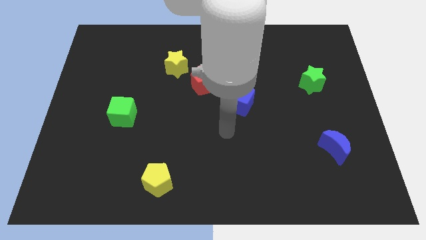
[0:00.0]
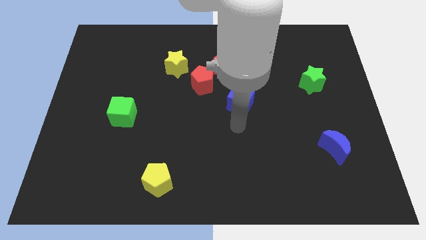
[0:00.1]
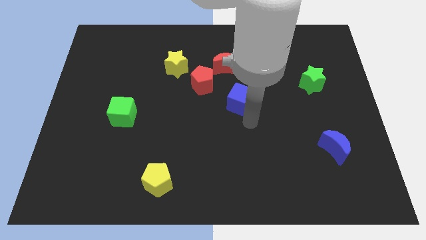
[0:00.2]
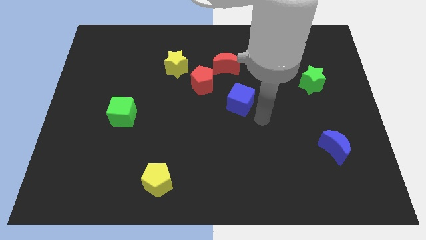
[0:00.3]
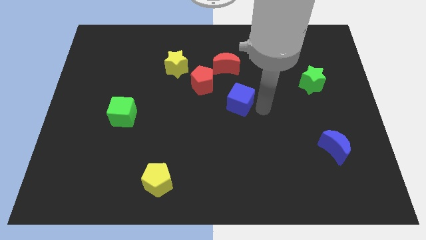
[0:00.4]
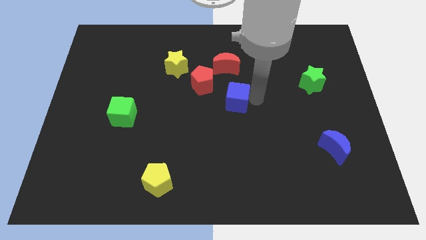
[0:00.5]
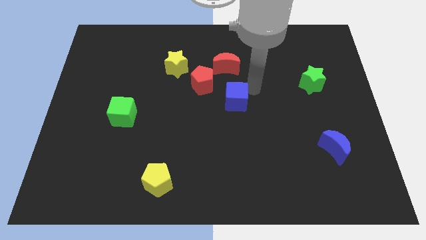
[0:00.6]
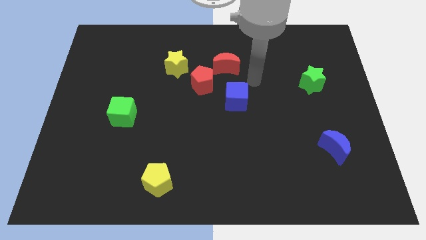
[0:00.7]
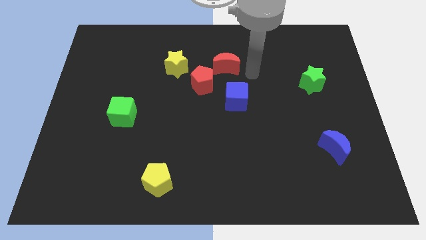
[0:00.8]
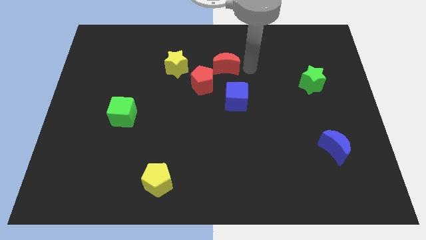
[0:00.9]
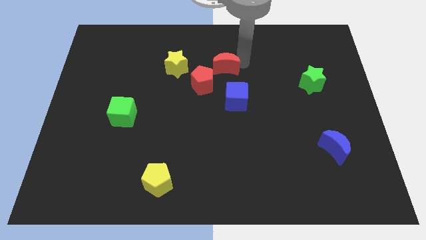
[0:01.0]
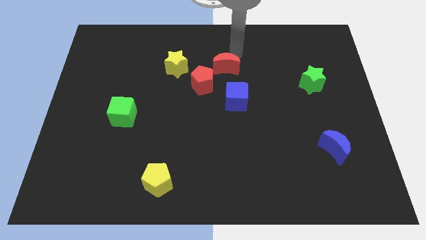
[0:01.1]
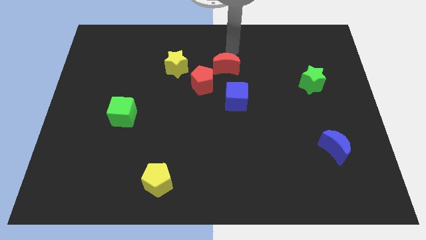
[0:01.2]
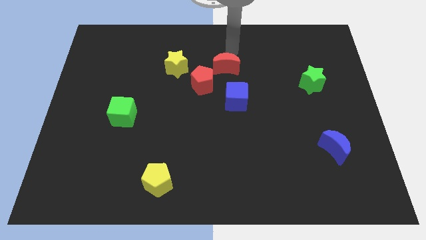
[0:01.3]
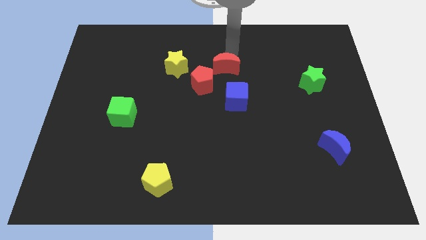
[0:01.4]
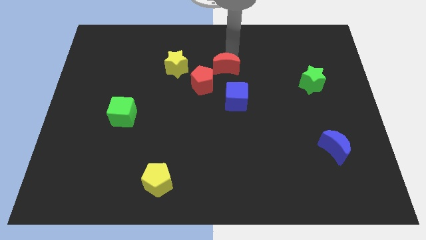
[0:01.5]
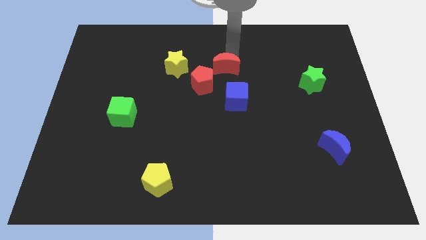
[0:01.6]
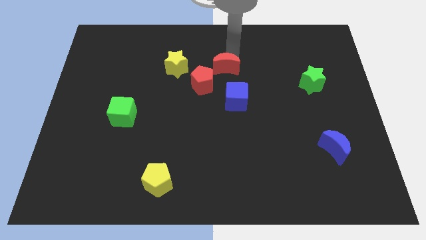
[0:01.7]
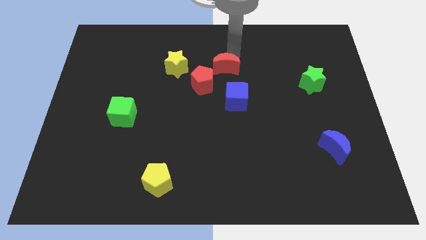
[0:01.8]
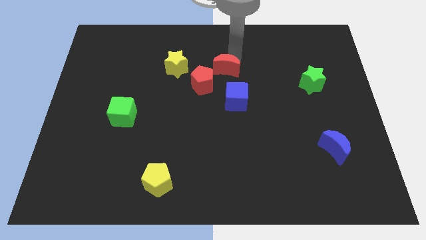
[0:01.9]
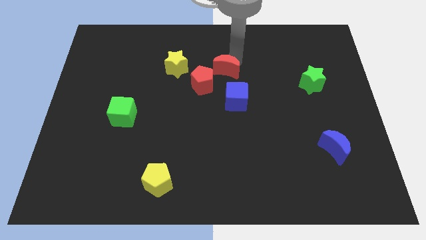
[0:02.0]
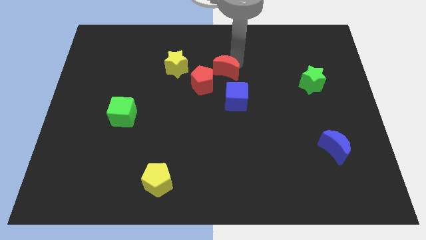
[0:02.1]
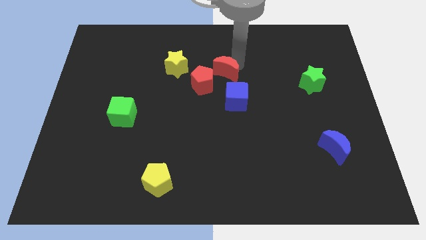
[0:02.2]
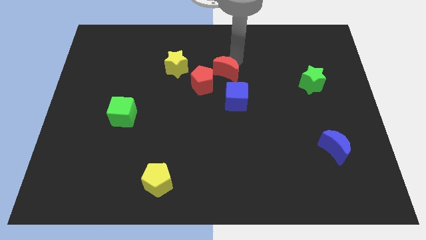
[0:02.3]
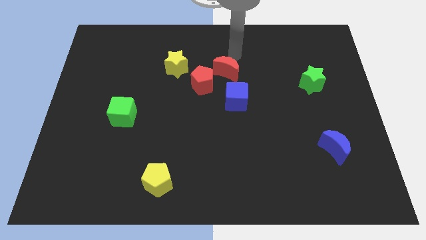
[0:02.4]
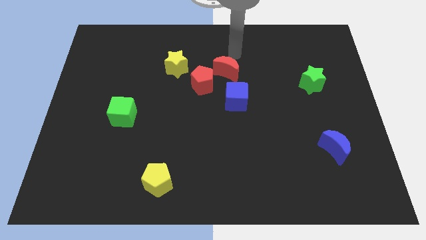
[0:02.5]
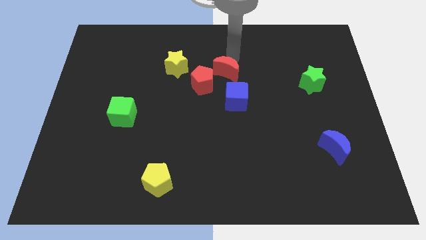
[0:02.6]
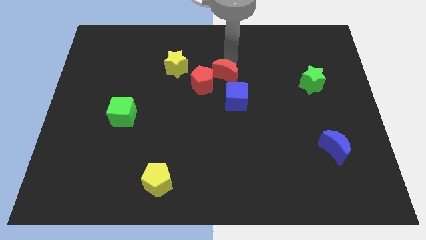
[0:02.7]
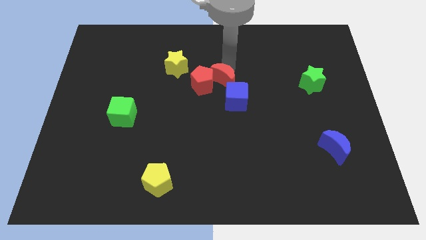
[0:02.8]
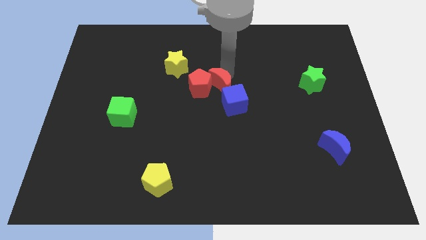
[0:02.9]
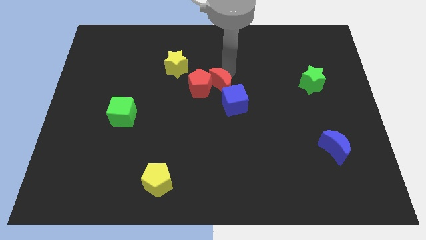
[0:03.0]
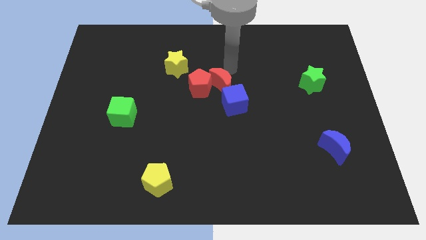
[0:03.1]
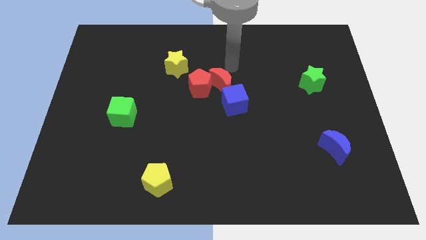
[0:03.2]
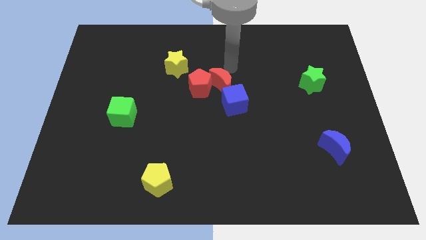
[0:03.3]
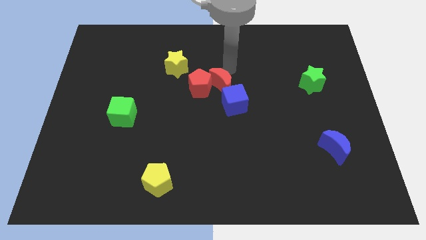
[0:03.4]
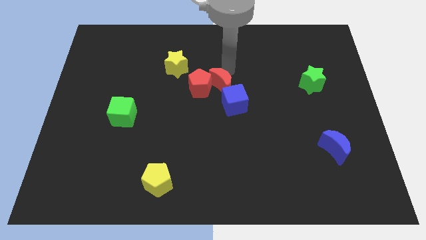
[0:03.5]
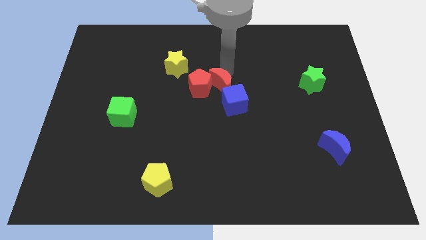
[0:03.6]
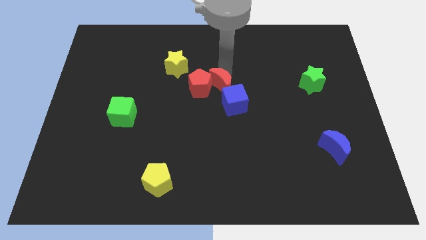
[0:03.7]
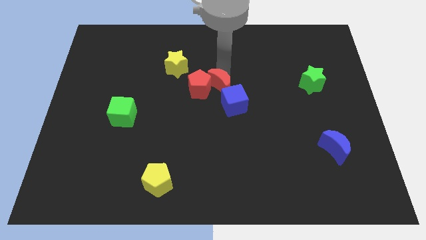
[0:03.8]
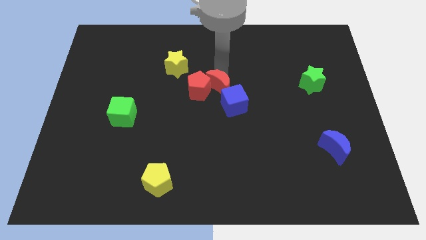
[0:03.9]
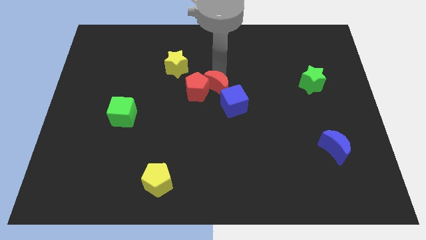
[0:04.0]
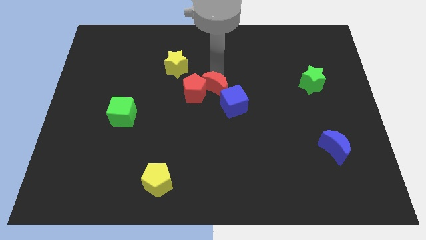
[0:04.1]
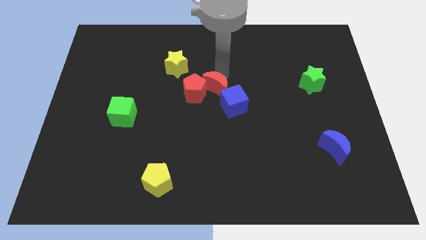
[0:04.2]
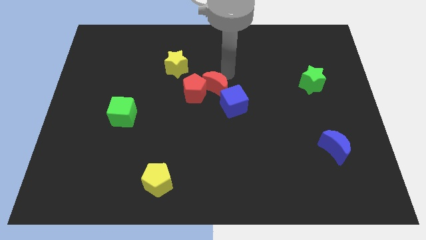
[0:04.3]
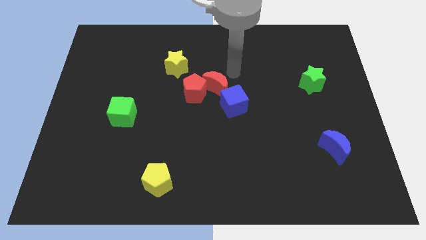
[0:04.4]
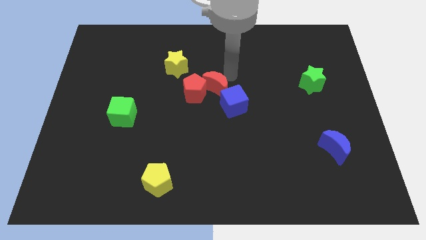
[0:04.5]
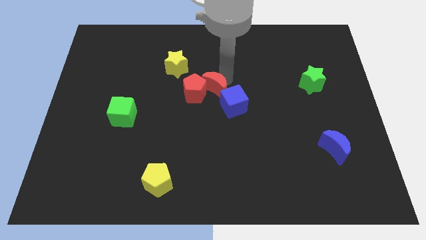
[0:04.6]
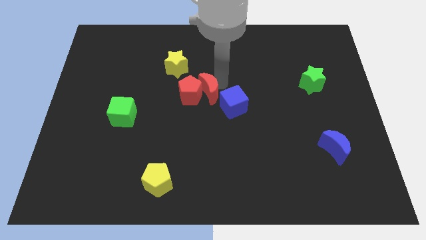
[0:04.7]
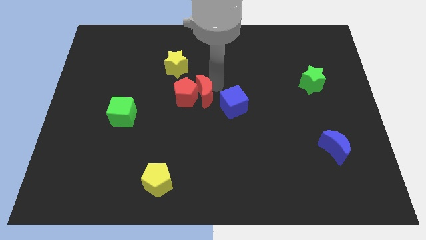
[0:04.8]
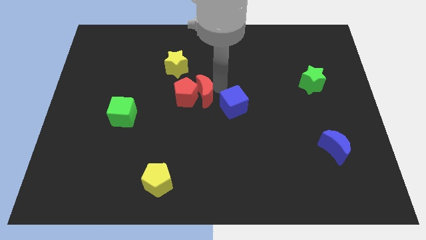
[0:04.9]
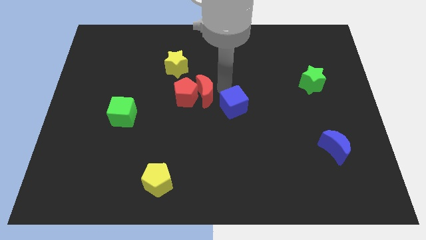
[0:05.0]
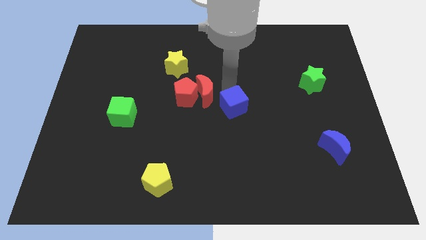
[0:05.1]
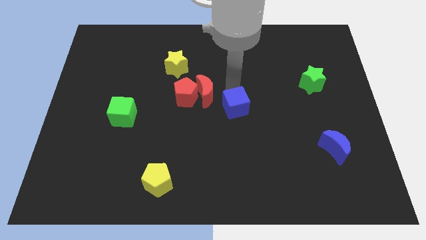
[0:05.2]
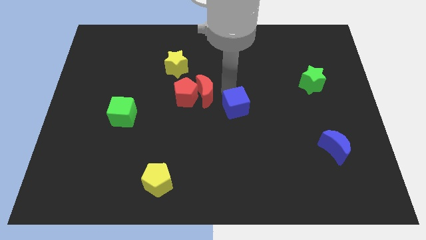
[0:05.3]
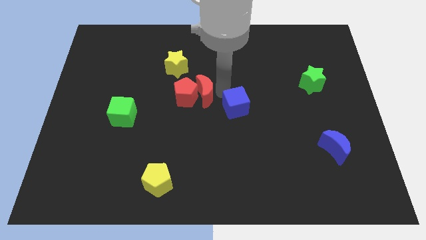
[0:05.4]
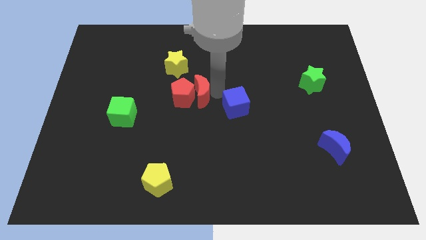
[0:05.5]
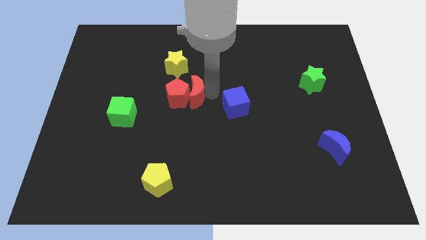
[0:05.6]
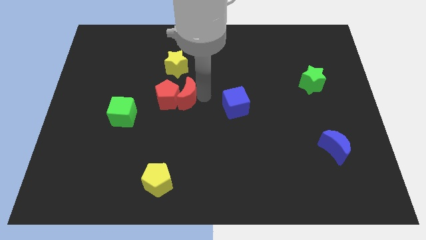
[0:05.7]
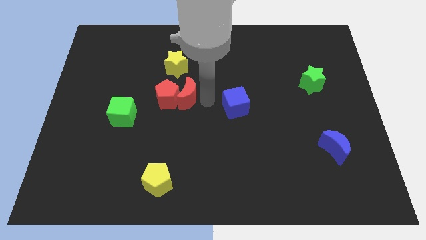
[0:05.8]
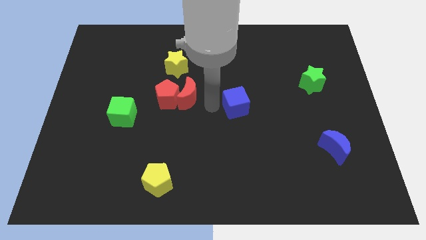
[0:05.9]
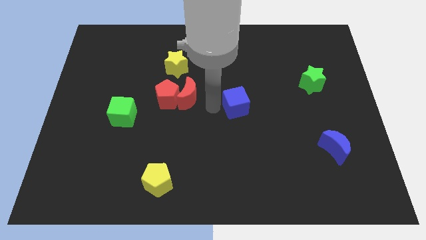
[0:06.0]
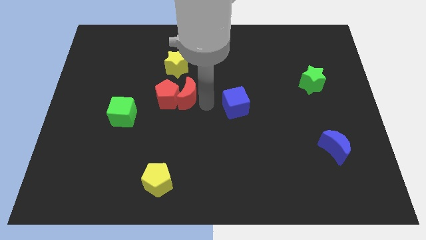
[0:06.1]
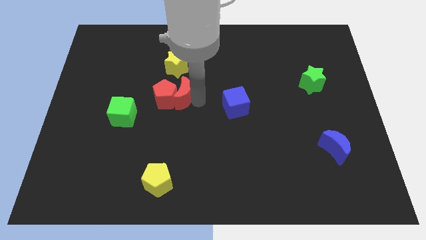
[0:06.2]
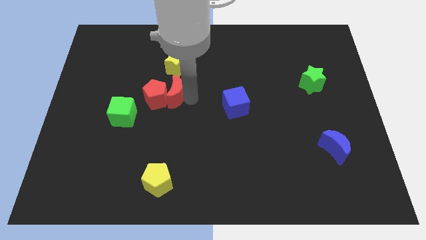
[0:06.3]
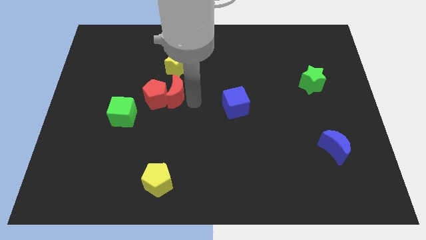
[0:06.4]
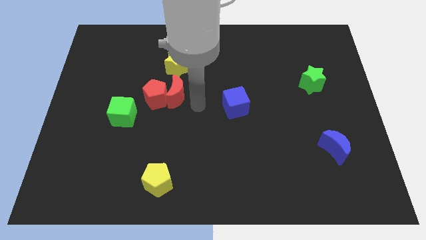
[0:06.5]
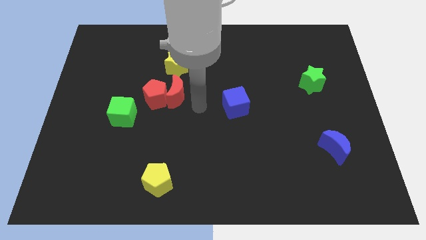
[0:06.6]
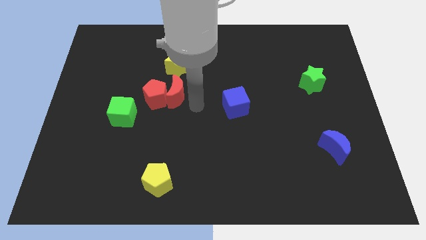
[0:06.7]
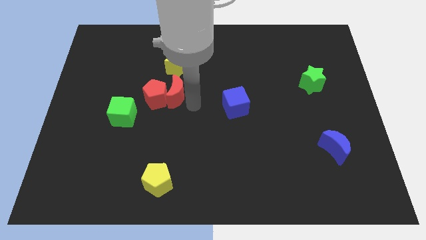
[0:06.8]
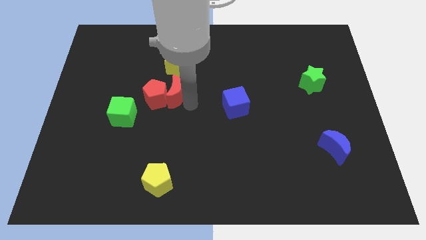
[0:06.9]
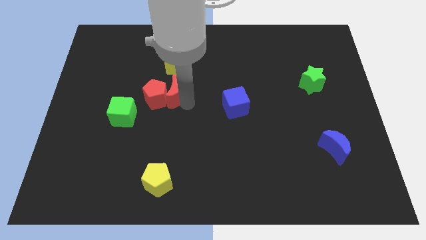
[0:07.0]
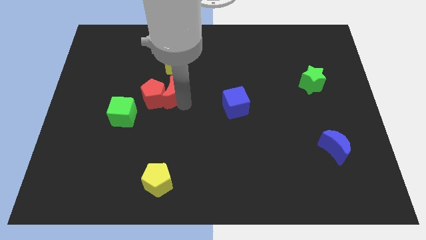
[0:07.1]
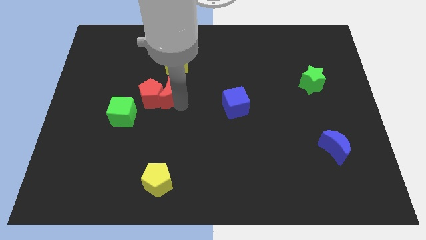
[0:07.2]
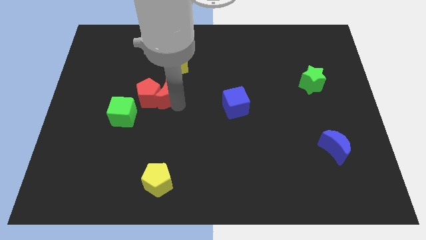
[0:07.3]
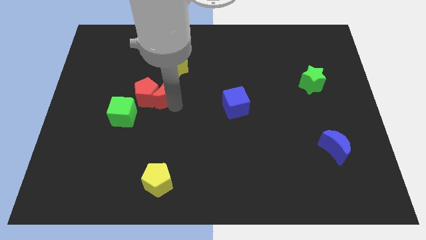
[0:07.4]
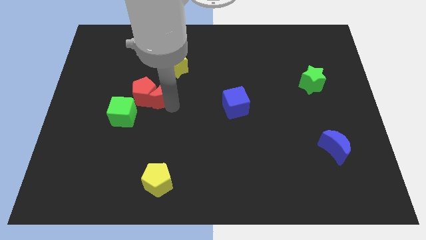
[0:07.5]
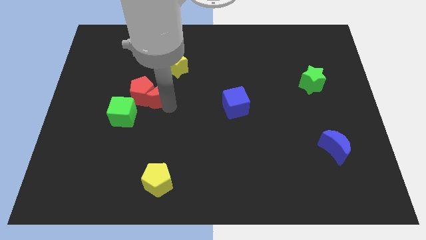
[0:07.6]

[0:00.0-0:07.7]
move the red moon to the bottom left of the yellow star

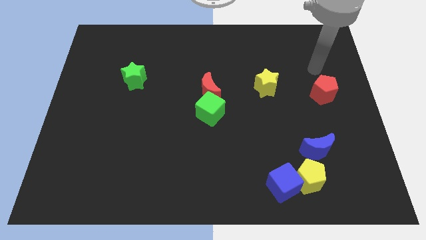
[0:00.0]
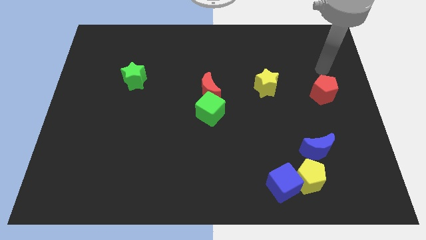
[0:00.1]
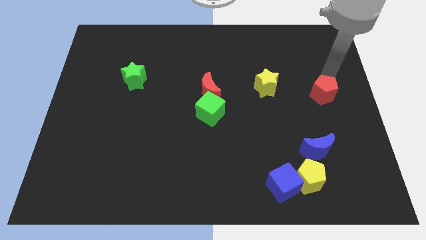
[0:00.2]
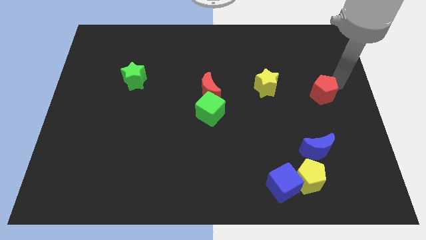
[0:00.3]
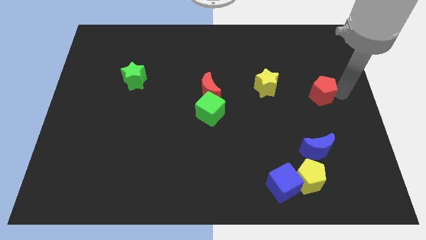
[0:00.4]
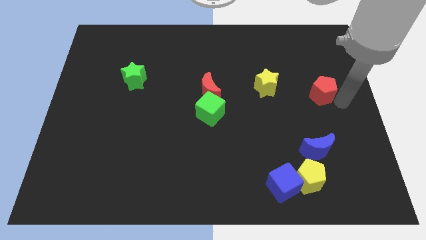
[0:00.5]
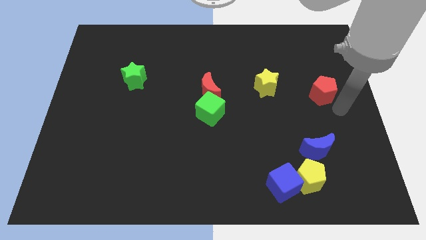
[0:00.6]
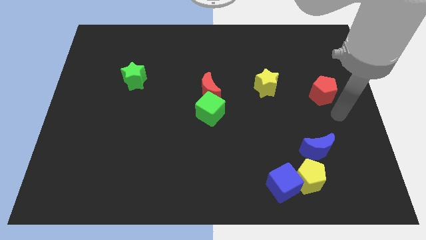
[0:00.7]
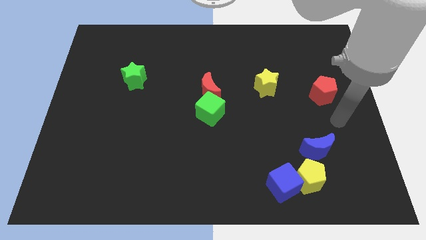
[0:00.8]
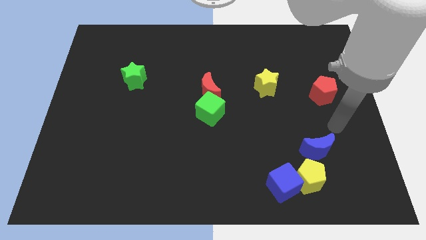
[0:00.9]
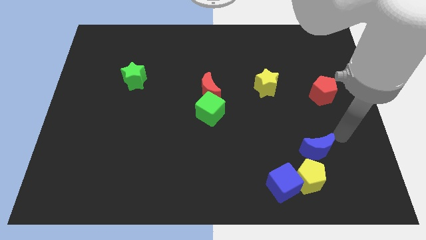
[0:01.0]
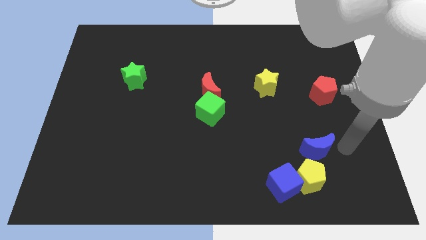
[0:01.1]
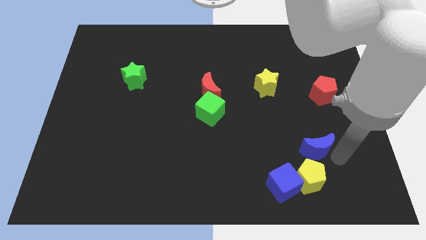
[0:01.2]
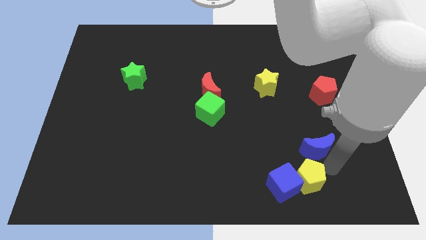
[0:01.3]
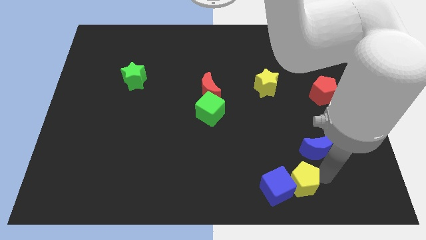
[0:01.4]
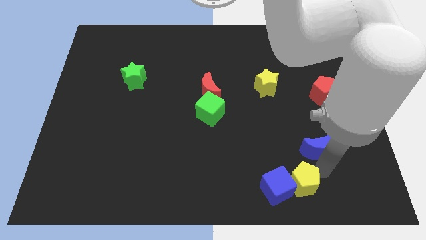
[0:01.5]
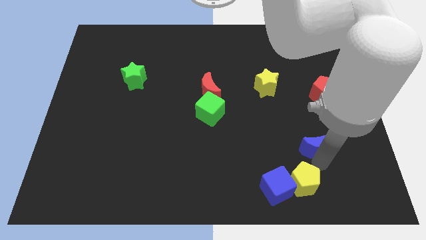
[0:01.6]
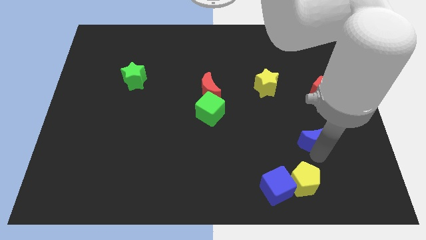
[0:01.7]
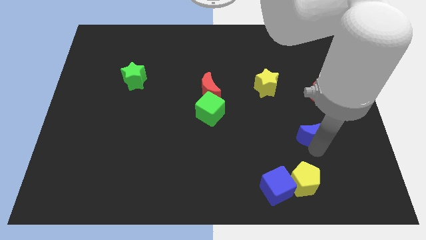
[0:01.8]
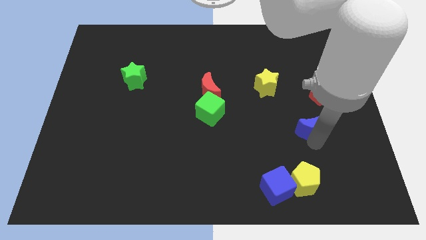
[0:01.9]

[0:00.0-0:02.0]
put the blue moon to the bottom left of the red pentagon
